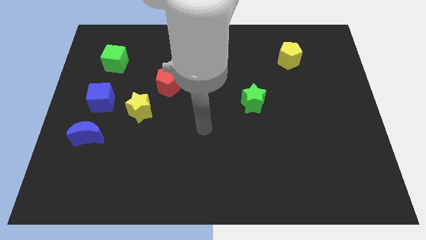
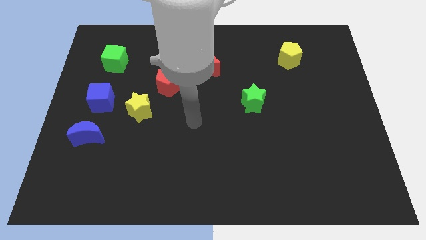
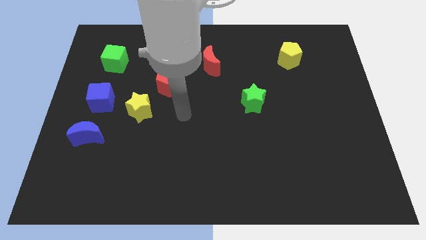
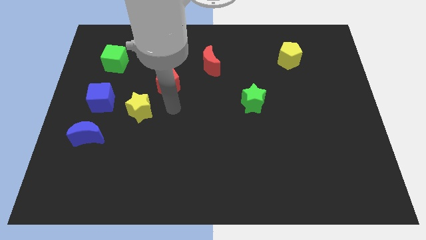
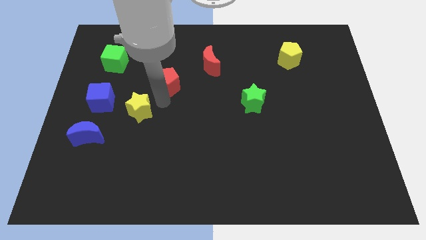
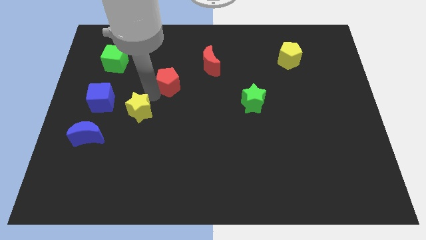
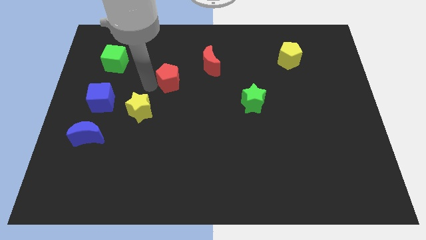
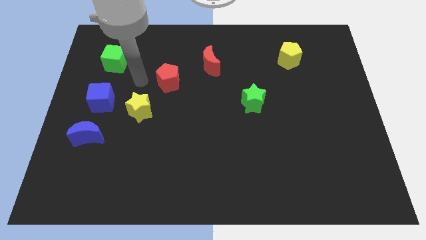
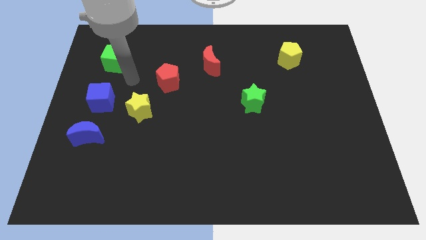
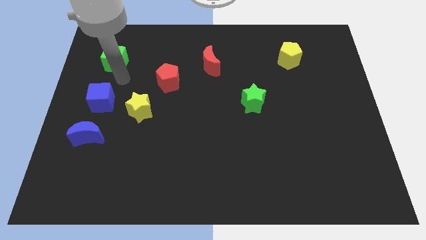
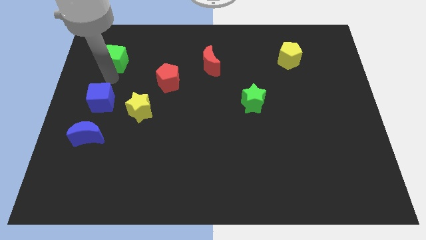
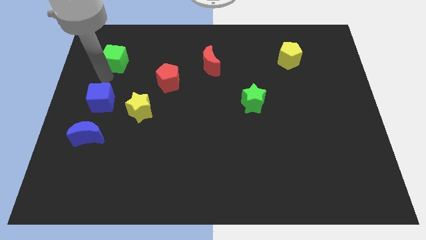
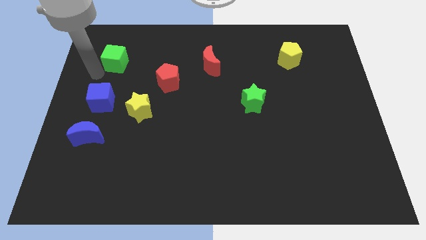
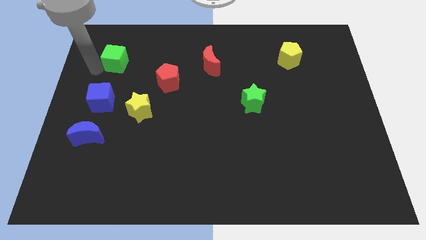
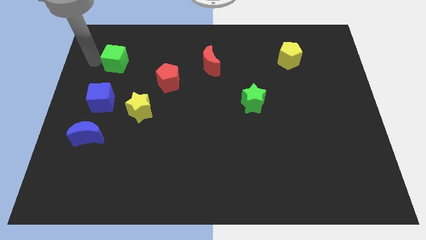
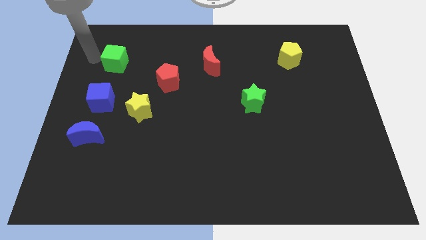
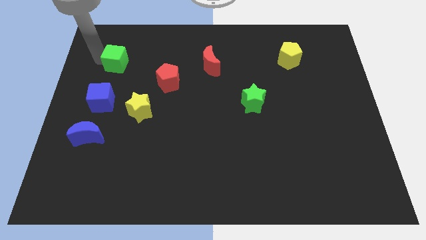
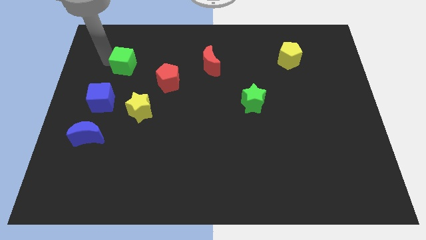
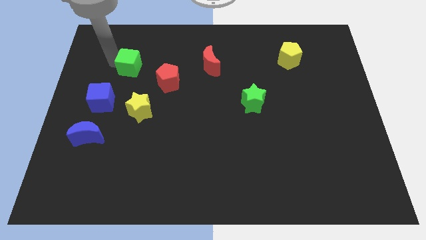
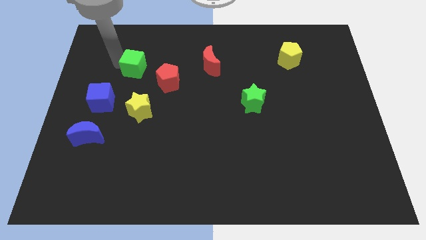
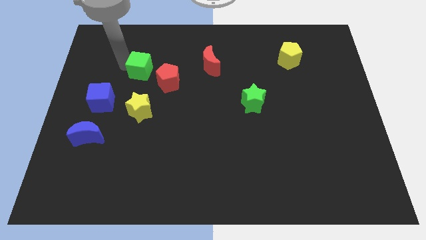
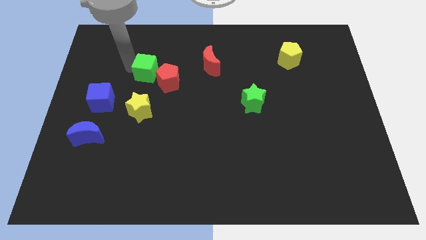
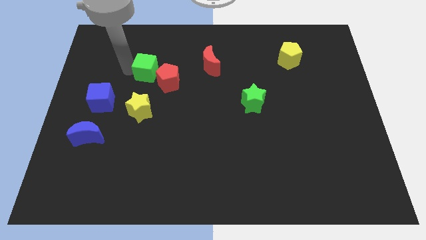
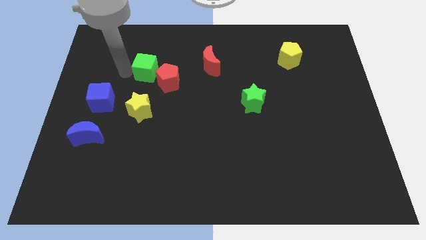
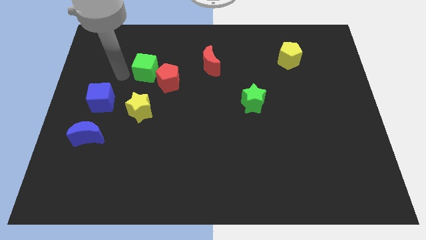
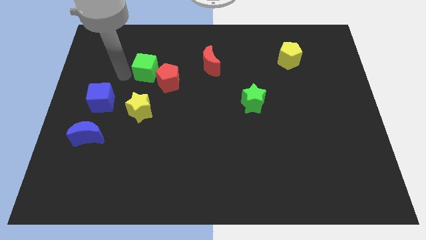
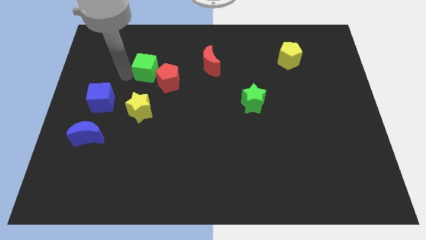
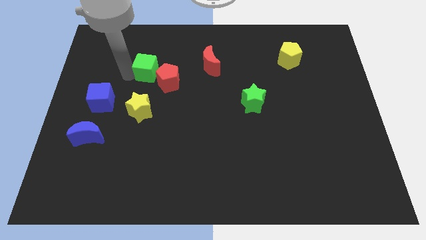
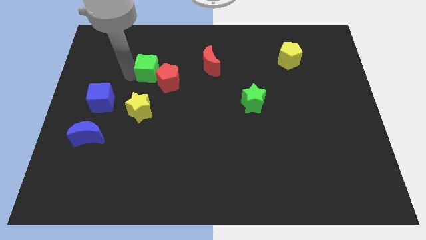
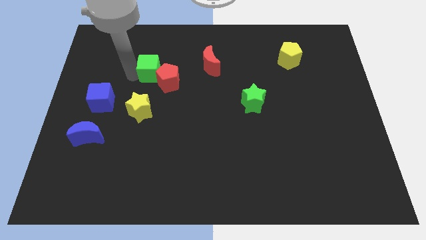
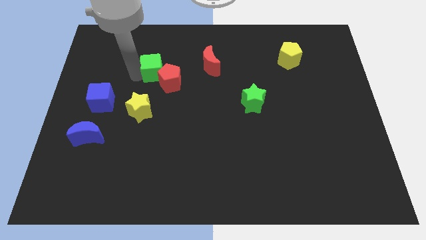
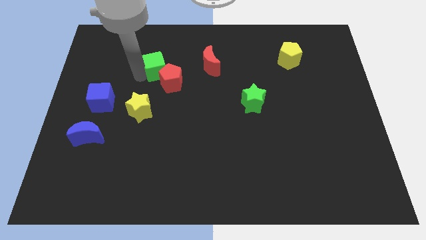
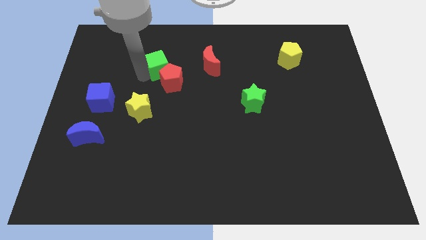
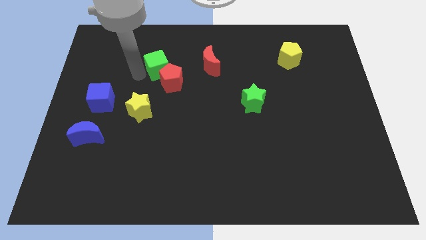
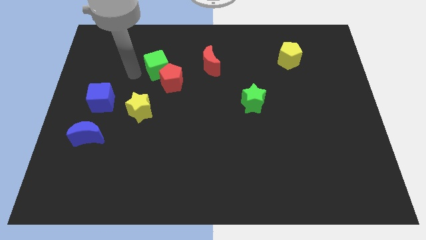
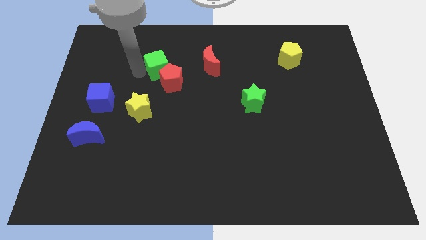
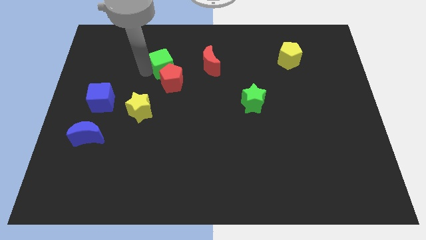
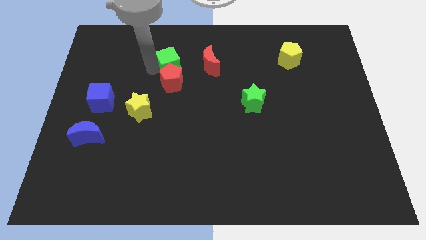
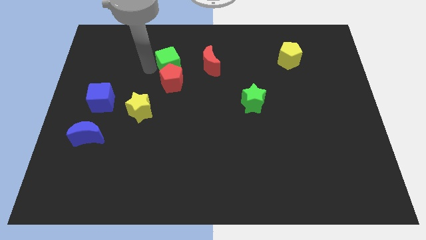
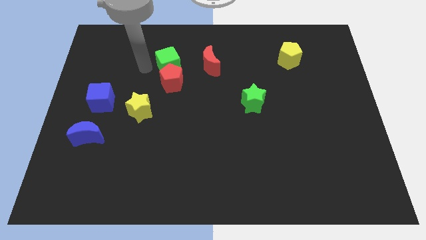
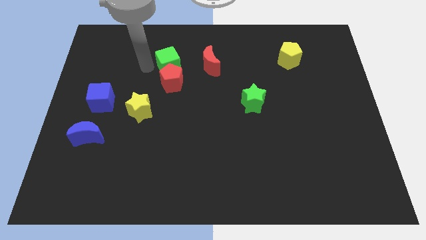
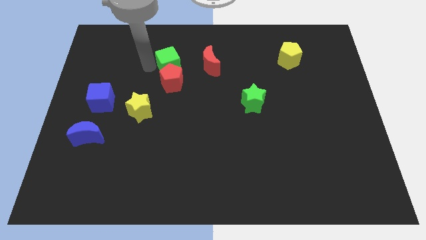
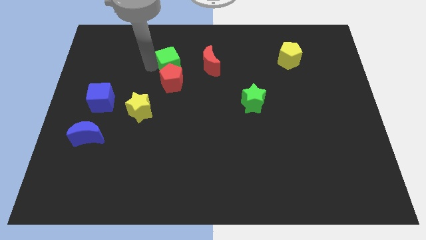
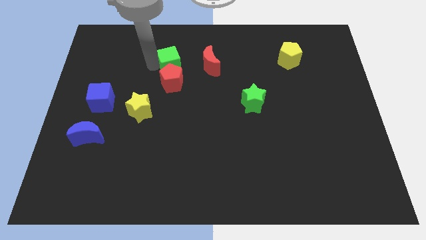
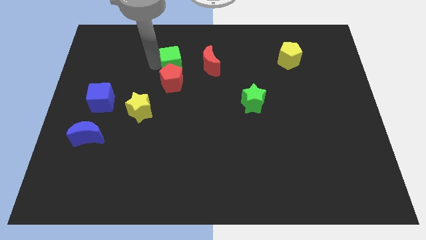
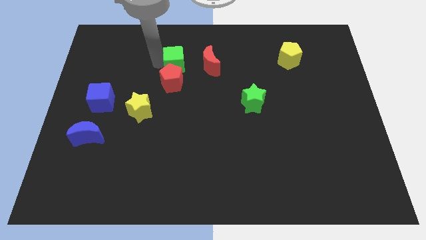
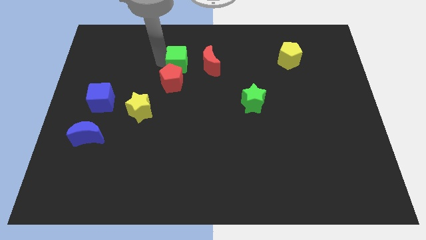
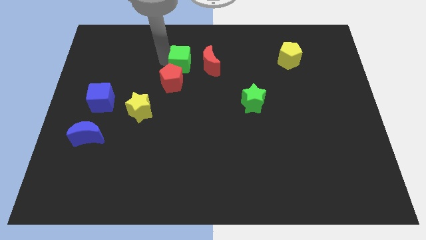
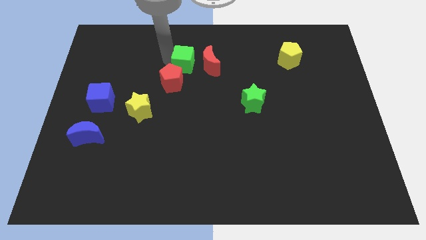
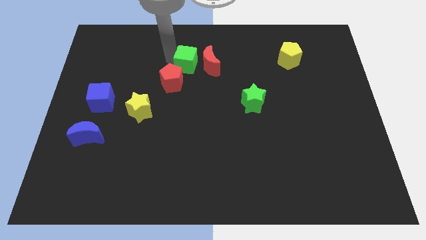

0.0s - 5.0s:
put the green cube next to the red moon

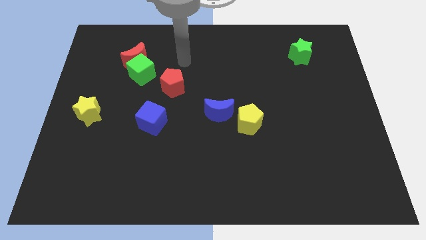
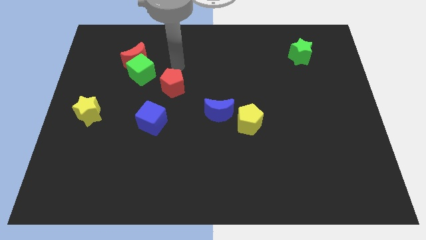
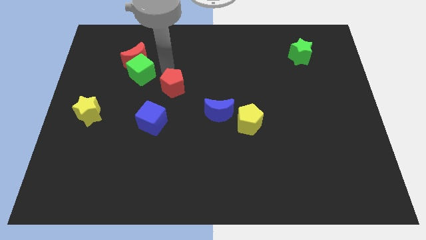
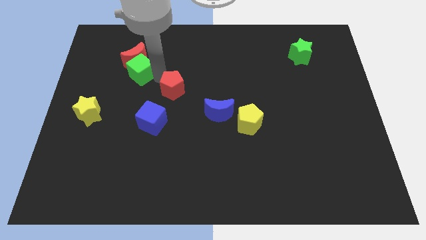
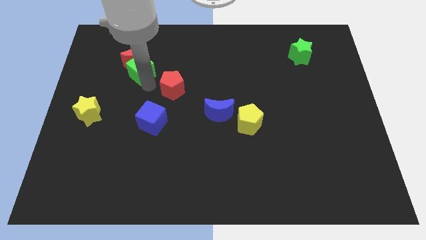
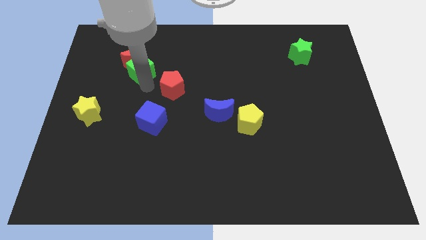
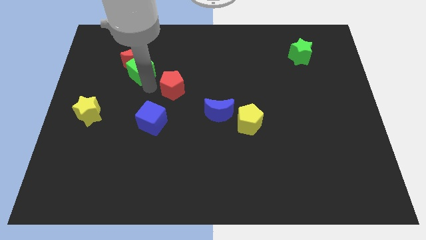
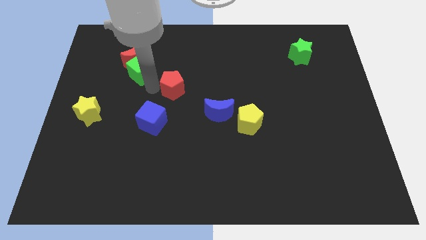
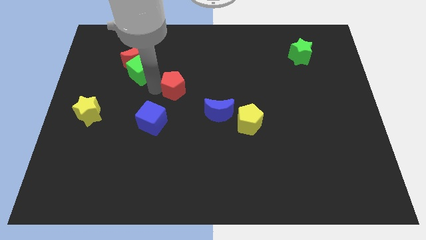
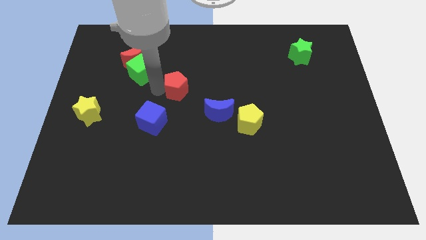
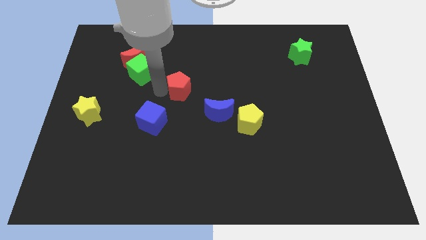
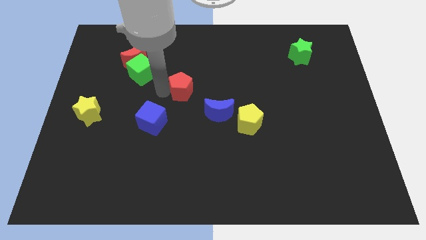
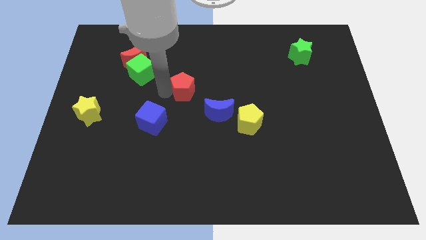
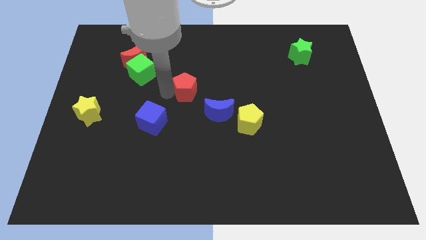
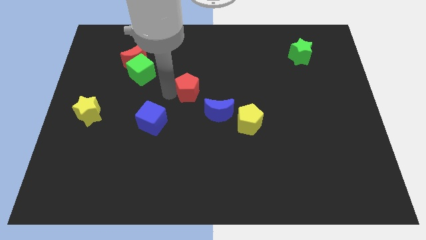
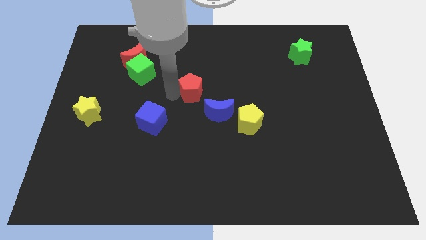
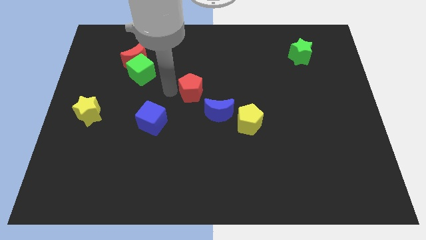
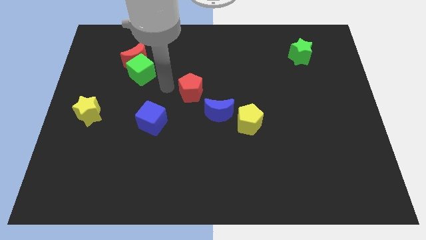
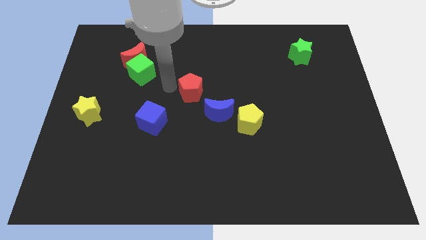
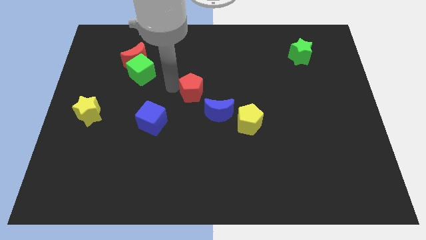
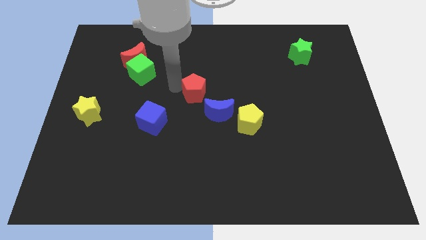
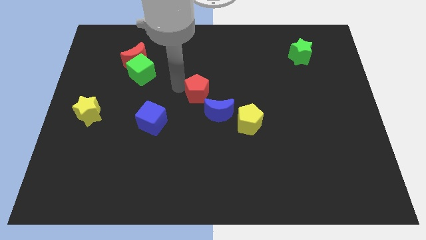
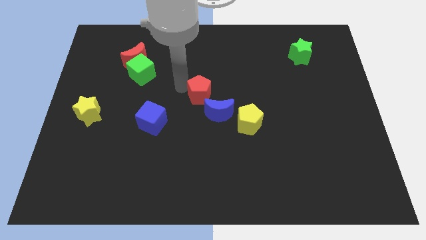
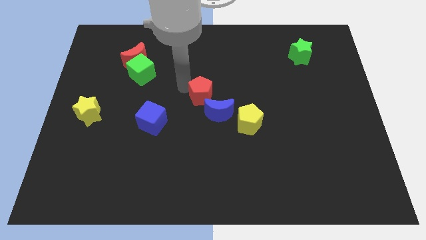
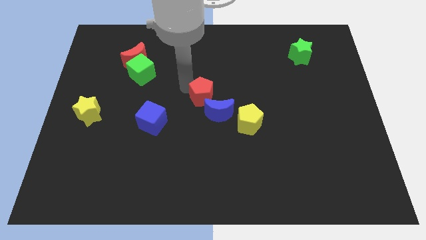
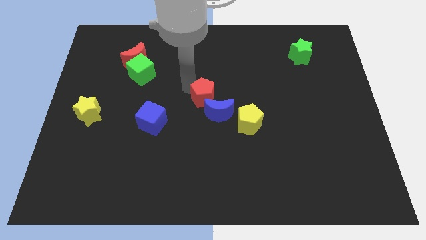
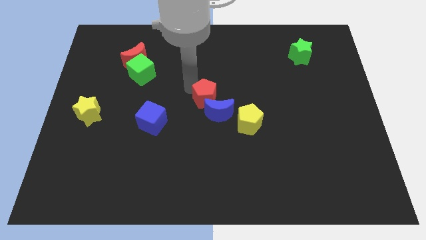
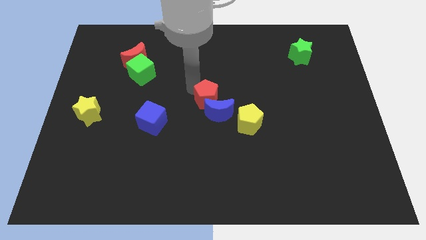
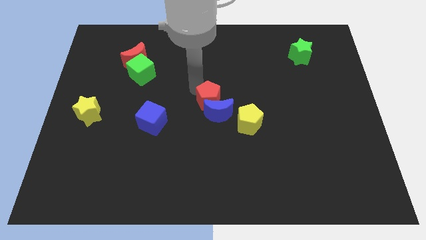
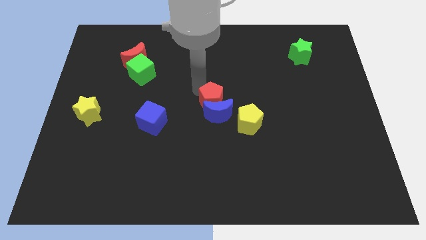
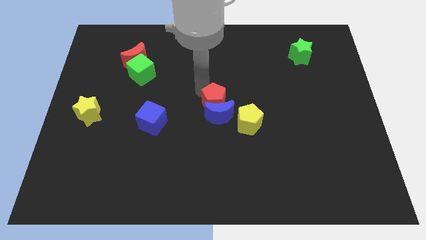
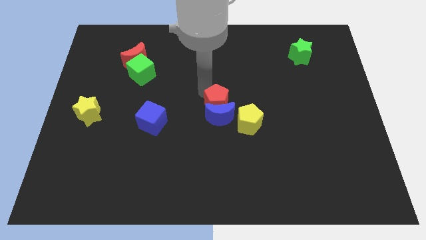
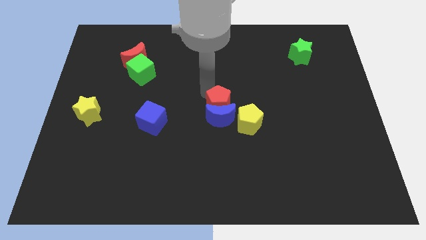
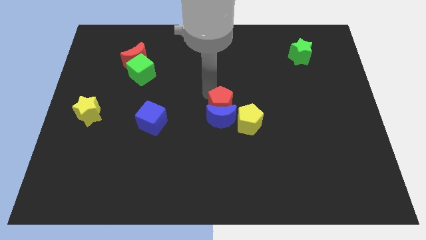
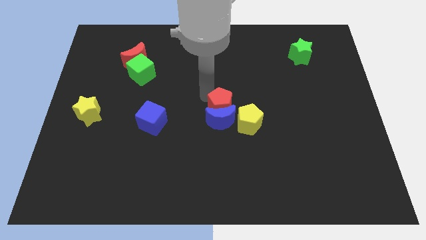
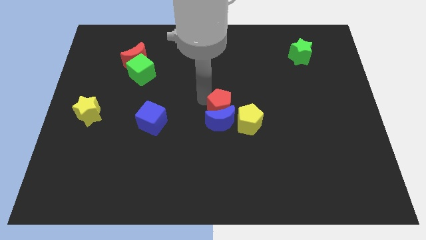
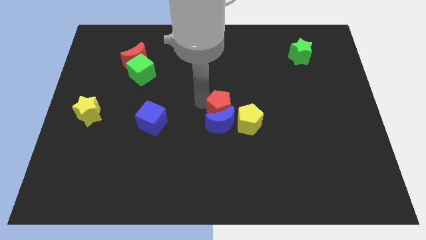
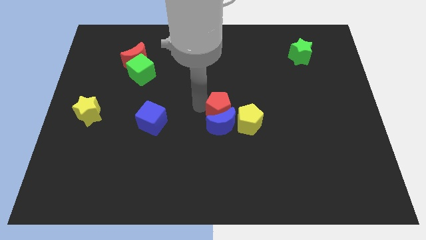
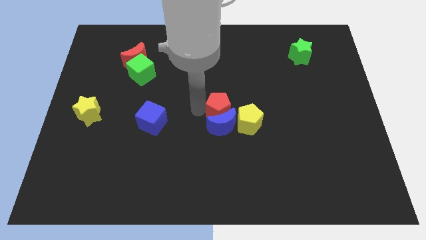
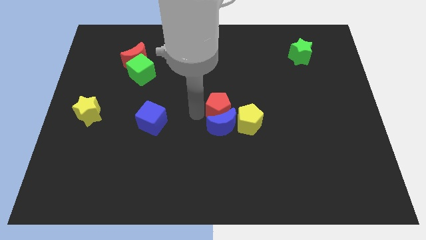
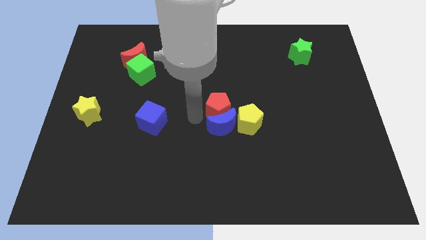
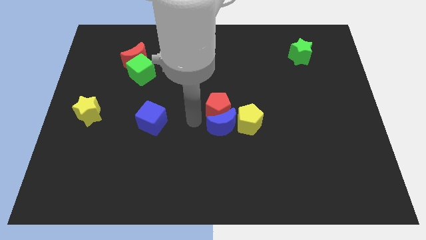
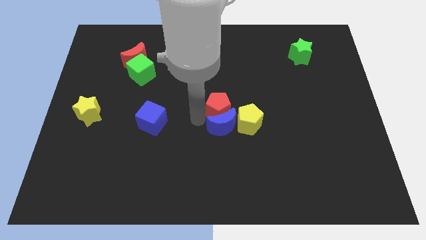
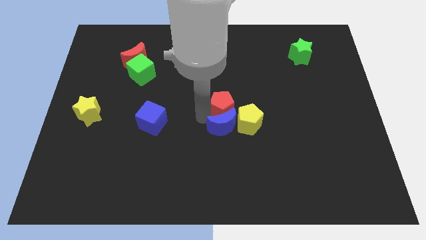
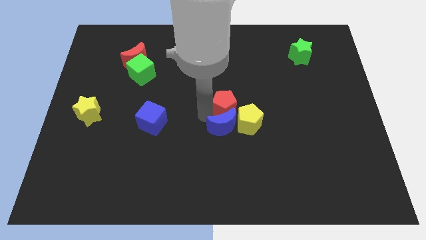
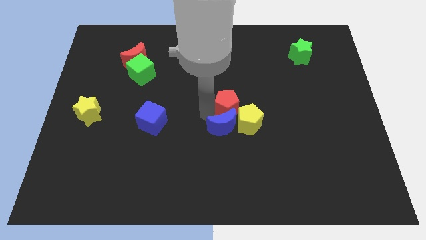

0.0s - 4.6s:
push the red pentagon close to the yellow pentagon
